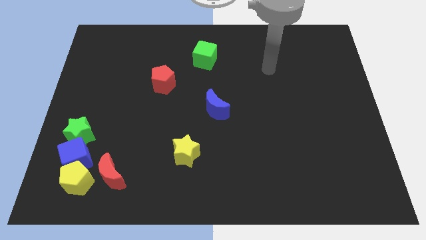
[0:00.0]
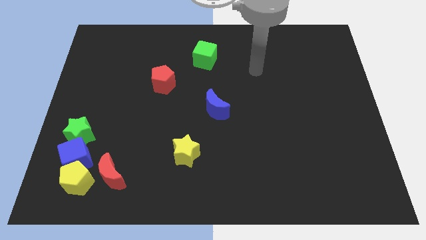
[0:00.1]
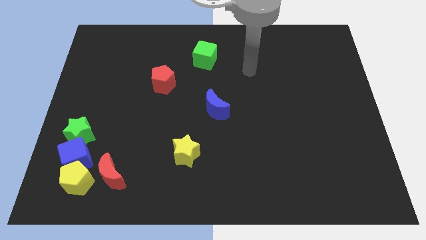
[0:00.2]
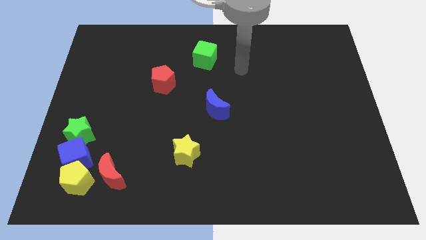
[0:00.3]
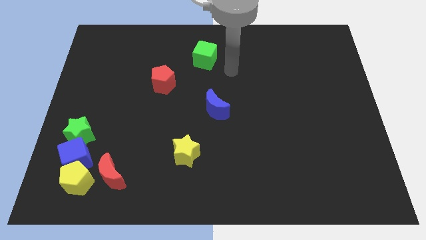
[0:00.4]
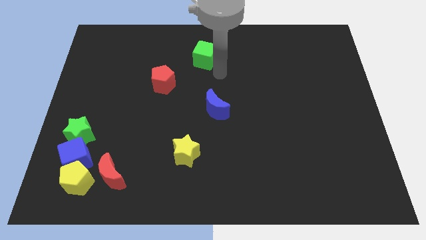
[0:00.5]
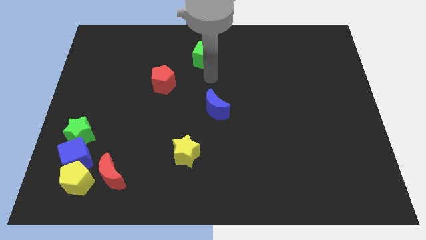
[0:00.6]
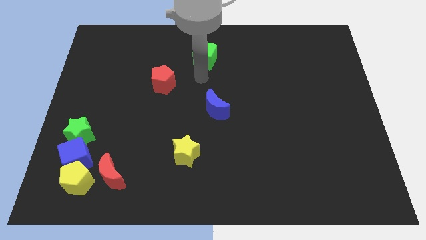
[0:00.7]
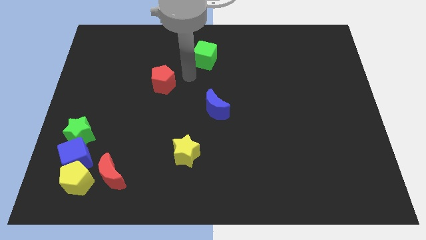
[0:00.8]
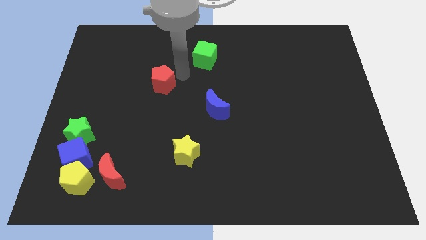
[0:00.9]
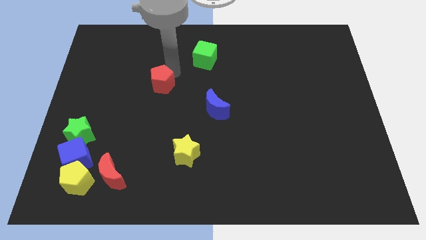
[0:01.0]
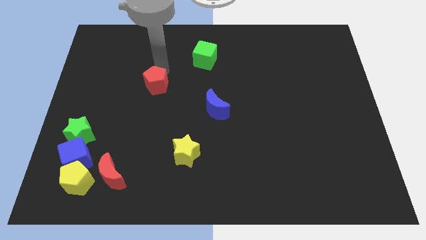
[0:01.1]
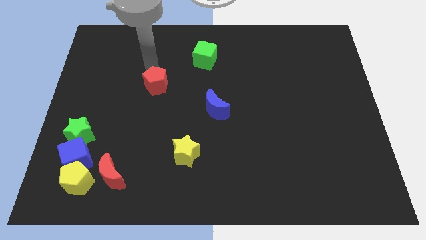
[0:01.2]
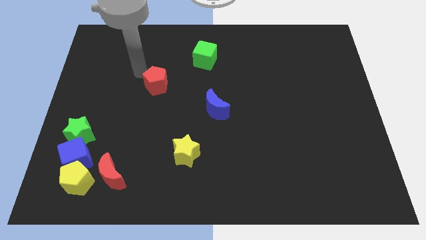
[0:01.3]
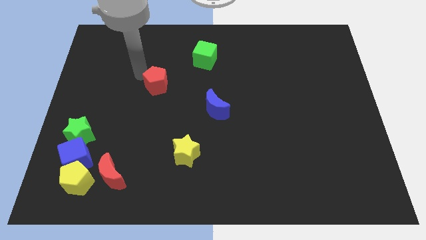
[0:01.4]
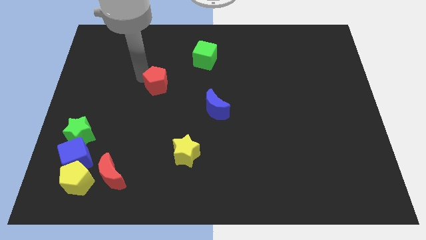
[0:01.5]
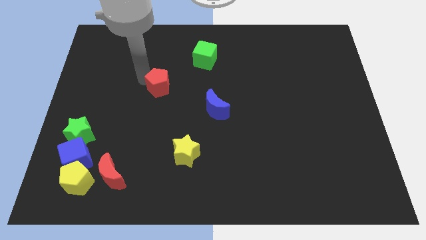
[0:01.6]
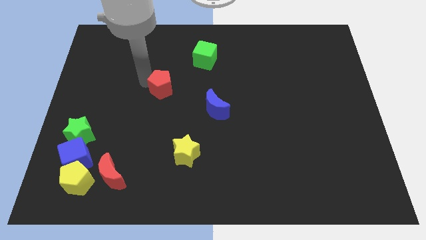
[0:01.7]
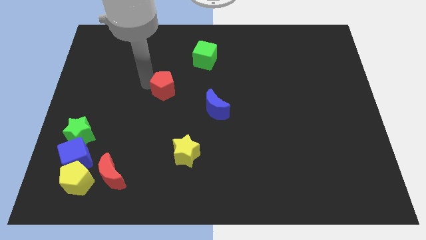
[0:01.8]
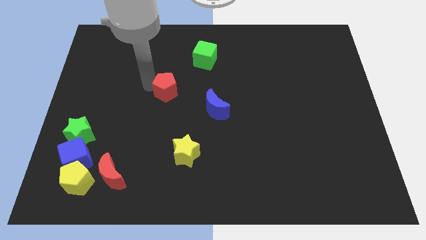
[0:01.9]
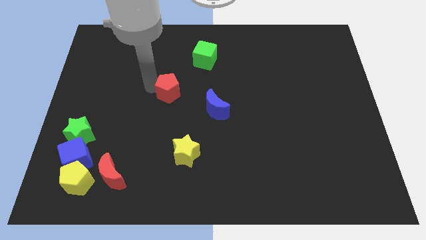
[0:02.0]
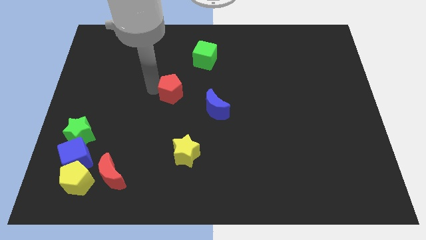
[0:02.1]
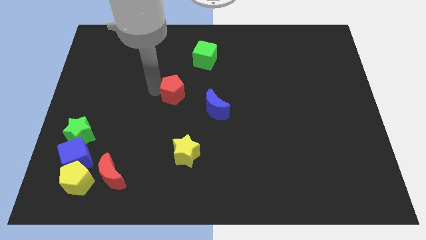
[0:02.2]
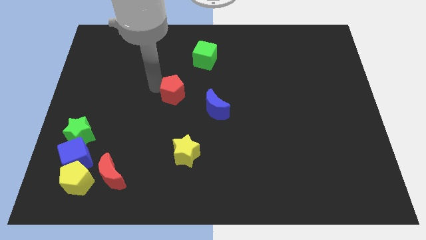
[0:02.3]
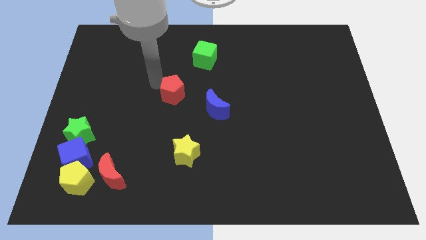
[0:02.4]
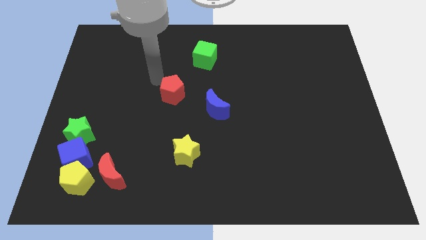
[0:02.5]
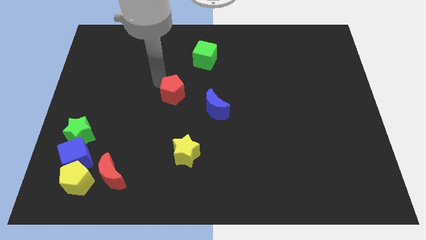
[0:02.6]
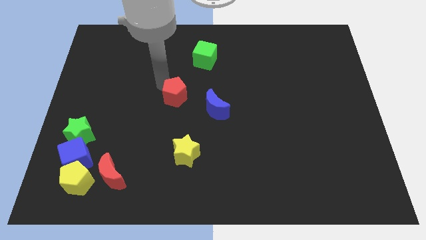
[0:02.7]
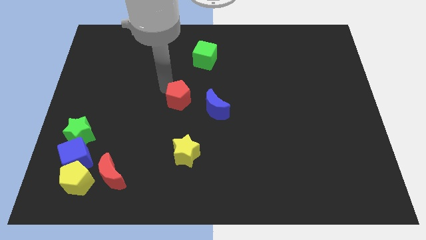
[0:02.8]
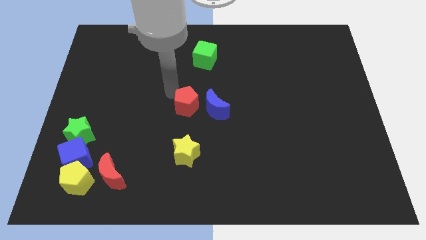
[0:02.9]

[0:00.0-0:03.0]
push the red pentagon a little bit diagonally down and right

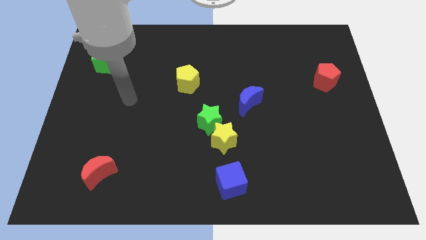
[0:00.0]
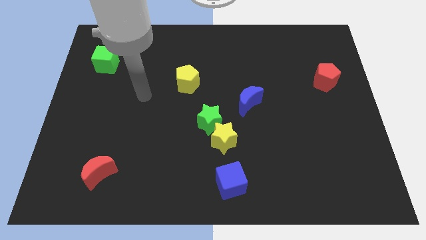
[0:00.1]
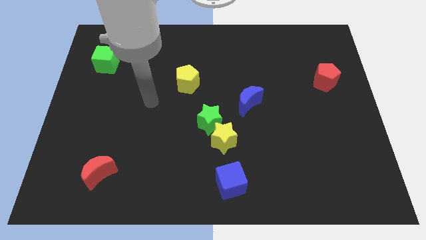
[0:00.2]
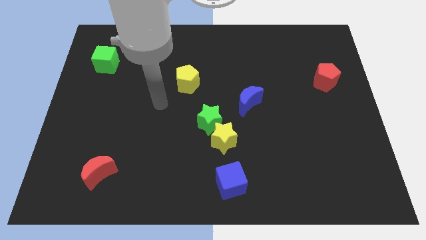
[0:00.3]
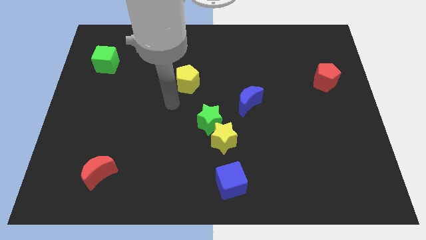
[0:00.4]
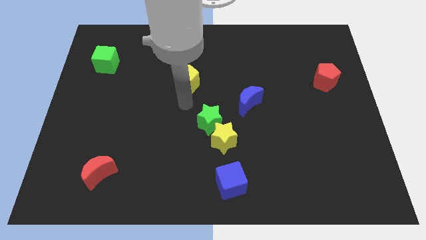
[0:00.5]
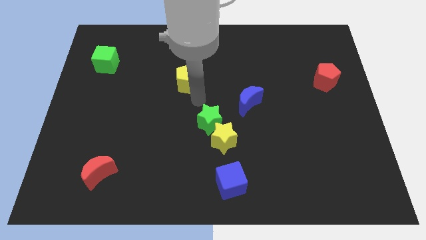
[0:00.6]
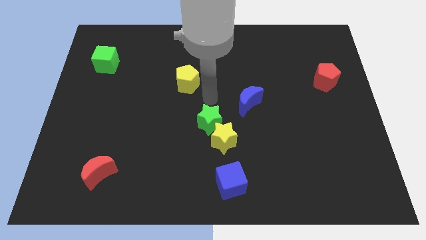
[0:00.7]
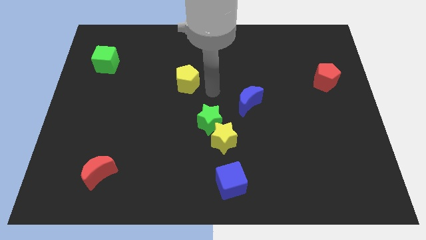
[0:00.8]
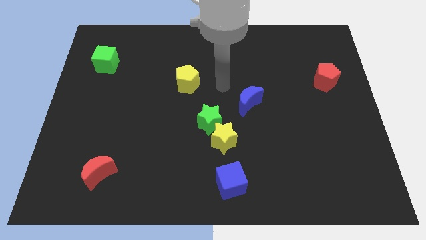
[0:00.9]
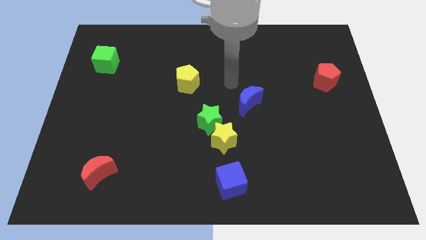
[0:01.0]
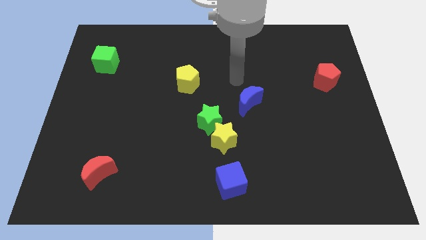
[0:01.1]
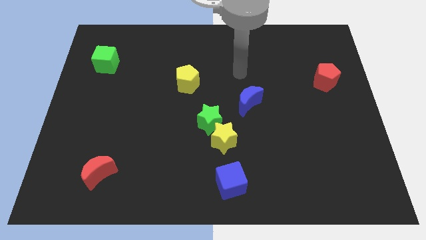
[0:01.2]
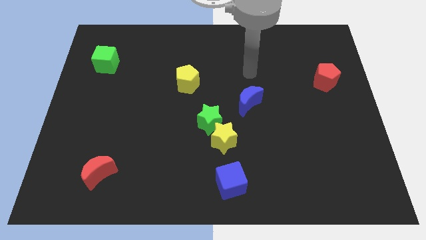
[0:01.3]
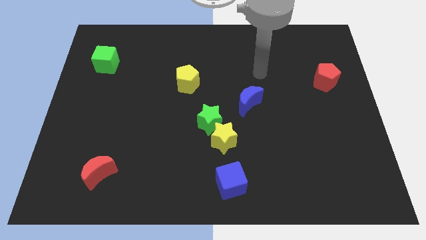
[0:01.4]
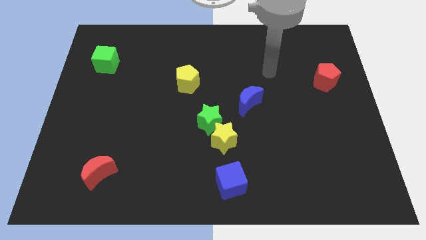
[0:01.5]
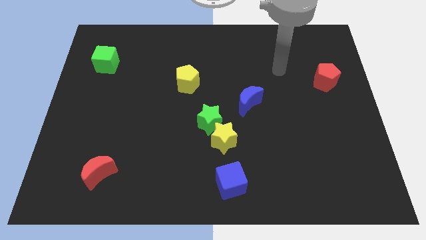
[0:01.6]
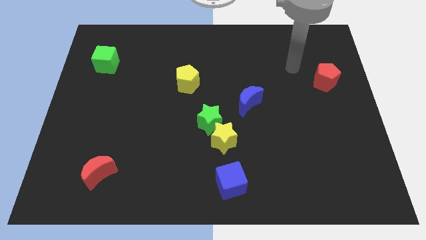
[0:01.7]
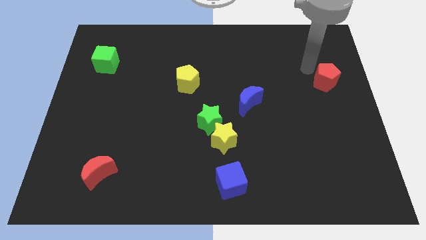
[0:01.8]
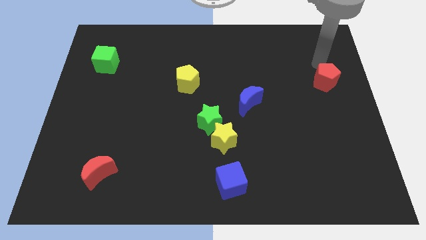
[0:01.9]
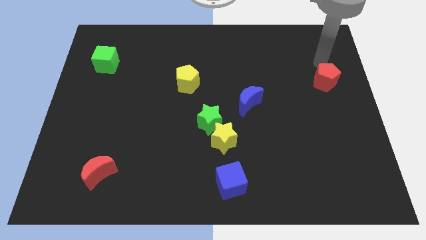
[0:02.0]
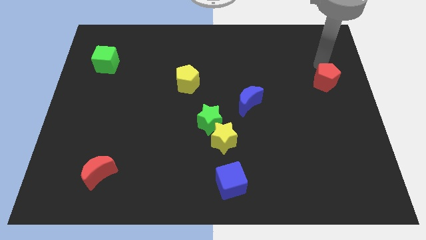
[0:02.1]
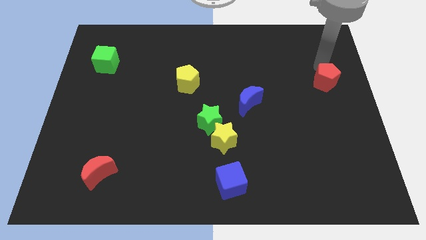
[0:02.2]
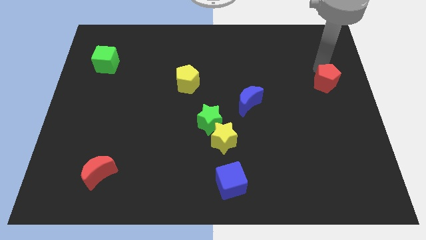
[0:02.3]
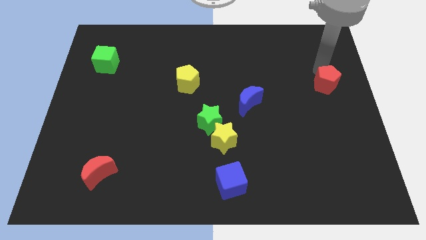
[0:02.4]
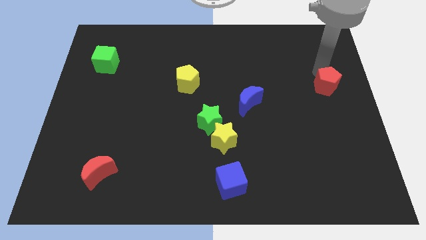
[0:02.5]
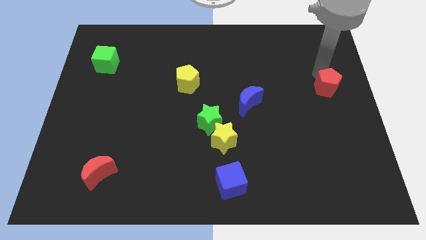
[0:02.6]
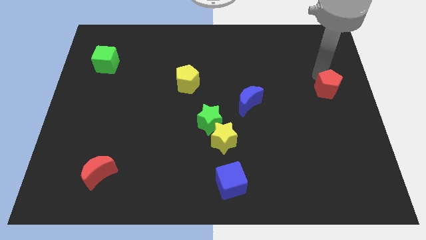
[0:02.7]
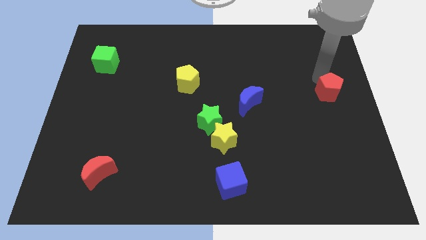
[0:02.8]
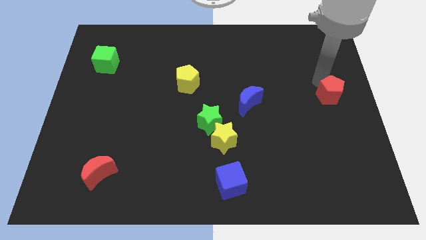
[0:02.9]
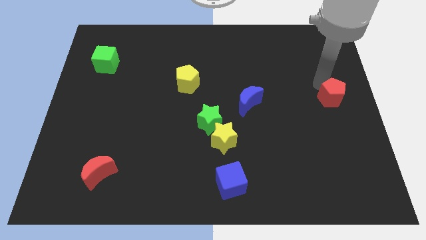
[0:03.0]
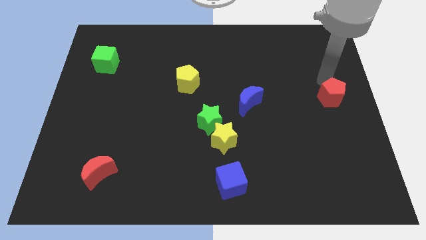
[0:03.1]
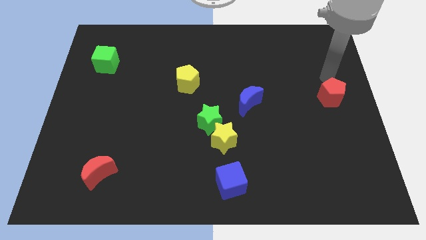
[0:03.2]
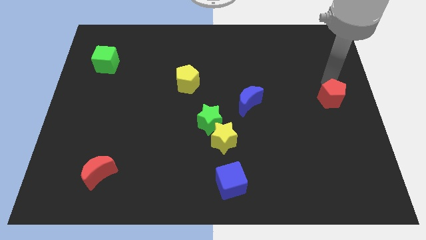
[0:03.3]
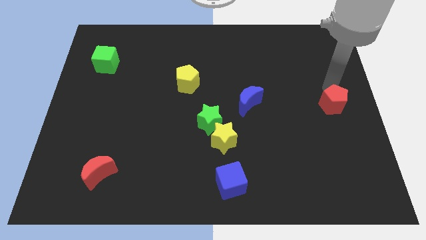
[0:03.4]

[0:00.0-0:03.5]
push the red pentagon slightly down

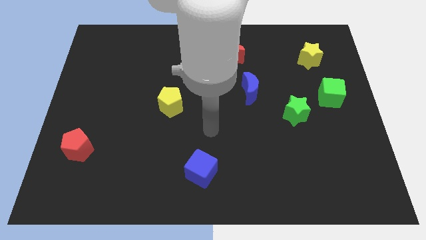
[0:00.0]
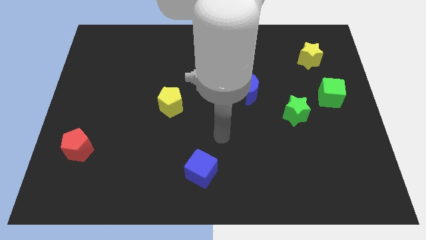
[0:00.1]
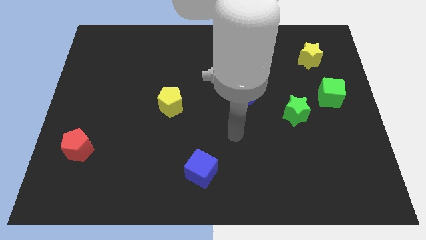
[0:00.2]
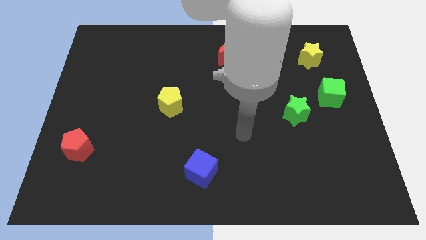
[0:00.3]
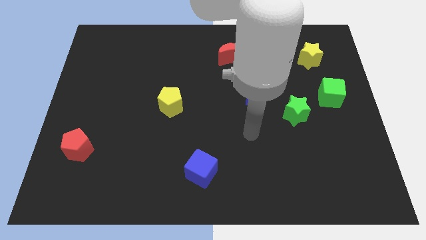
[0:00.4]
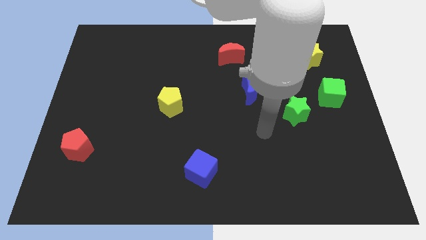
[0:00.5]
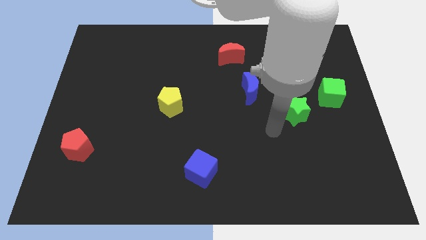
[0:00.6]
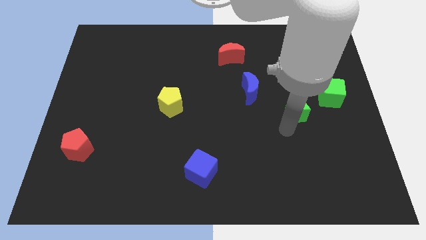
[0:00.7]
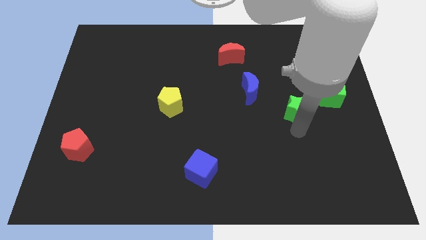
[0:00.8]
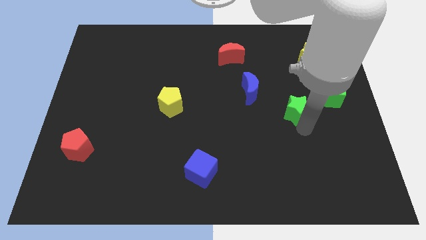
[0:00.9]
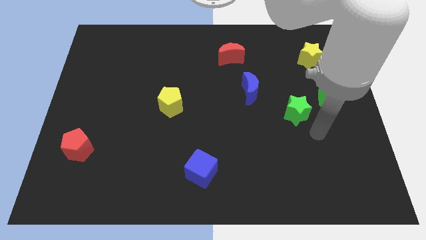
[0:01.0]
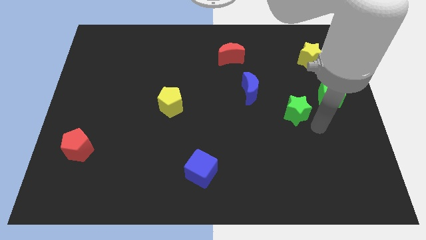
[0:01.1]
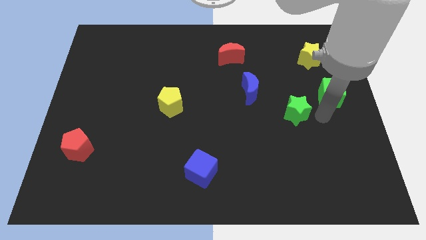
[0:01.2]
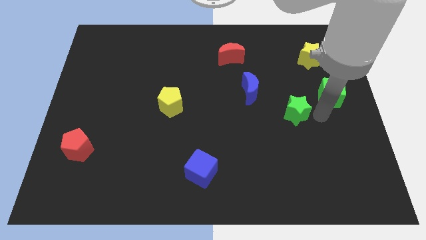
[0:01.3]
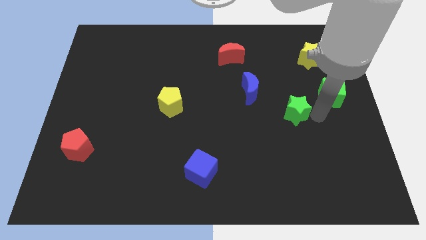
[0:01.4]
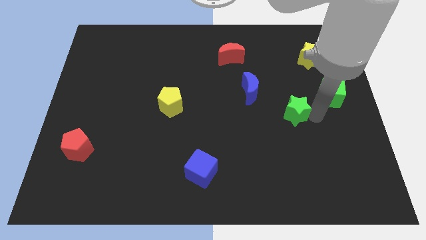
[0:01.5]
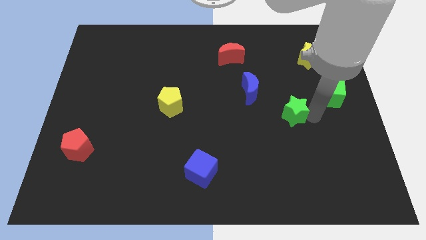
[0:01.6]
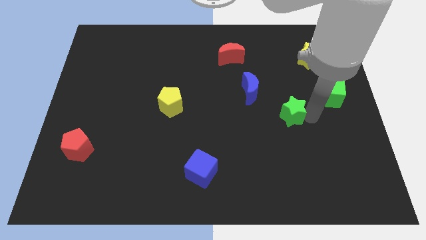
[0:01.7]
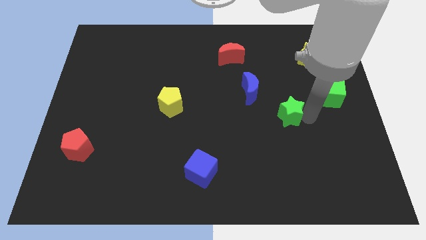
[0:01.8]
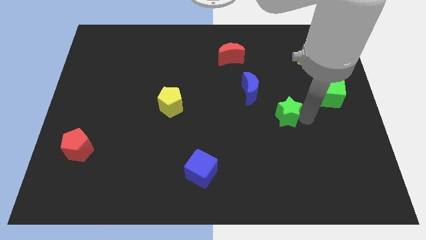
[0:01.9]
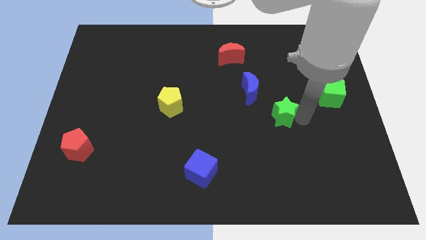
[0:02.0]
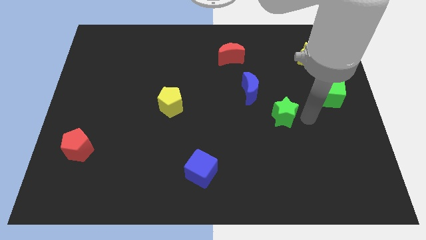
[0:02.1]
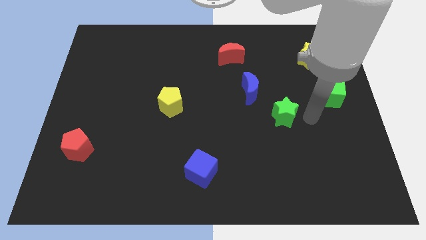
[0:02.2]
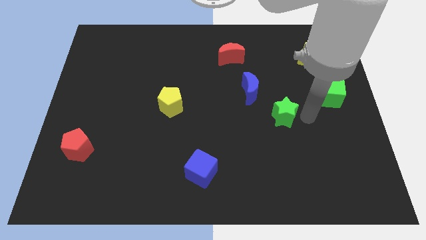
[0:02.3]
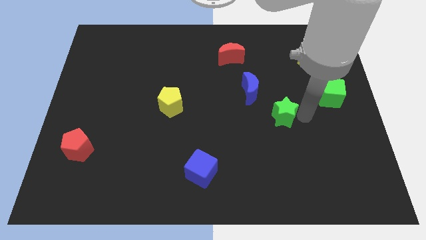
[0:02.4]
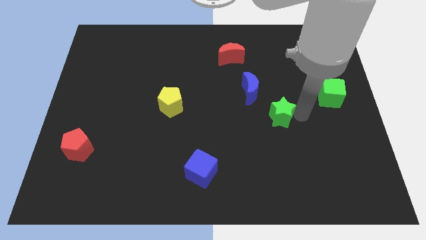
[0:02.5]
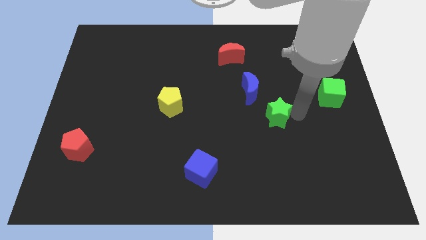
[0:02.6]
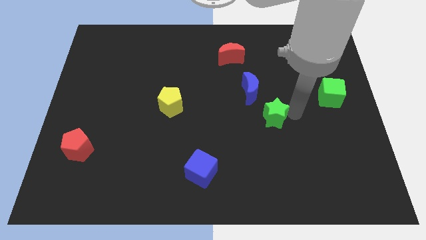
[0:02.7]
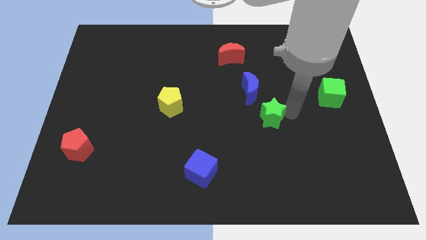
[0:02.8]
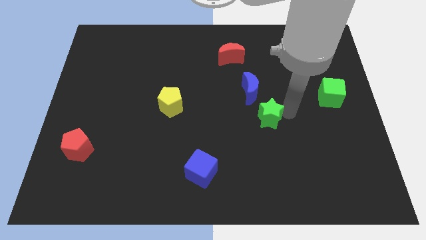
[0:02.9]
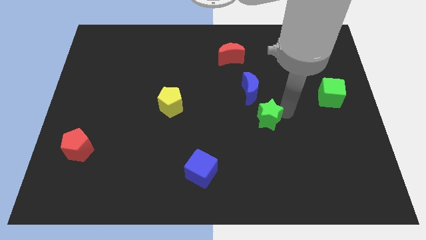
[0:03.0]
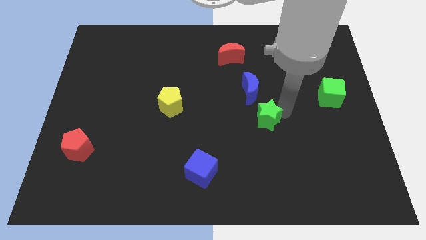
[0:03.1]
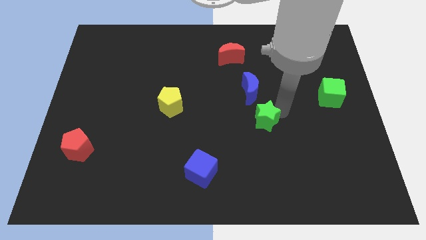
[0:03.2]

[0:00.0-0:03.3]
slightly move the green star to the left
